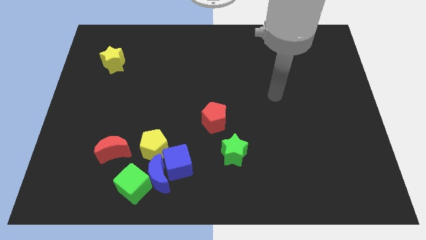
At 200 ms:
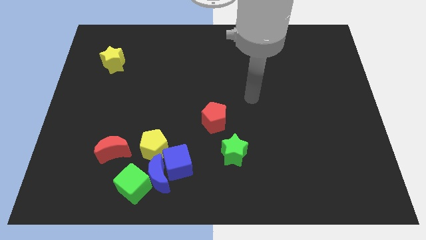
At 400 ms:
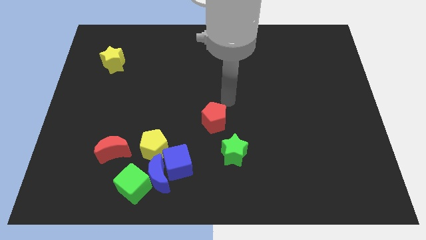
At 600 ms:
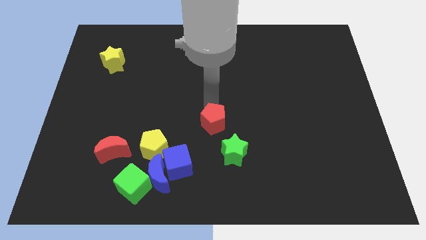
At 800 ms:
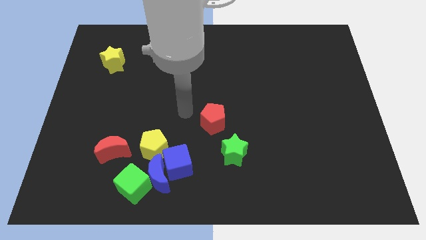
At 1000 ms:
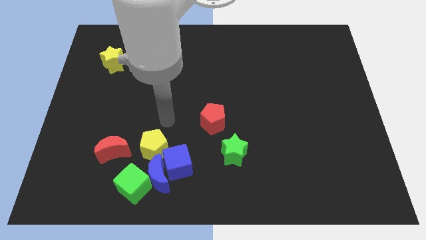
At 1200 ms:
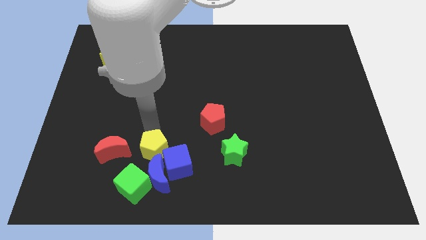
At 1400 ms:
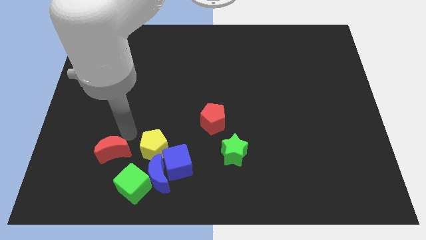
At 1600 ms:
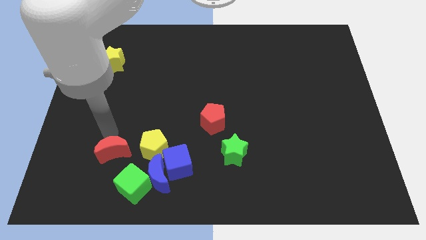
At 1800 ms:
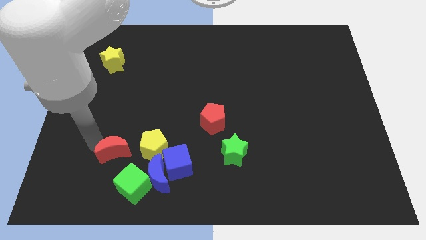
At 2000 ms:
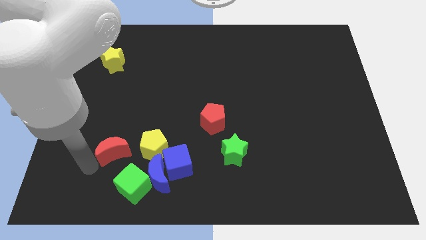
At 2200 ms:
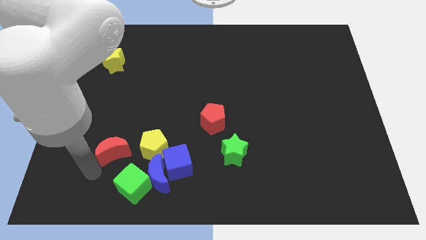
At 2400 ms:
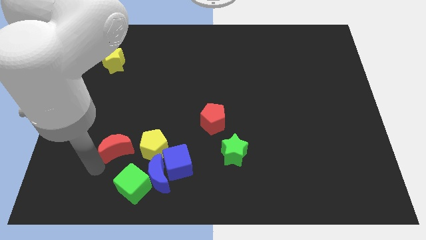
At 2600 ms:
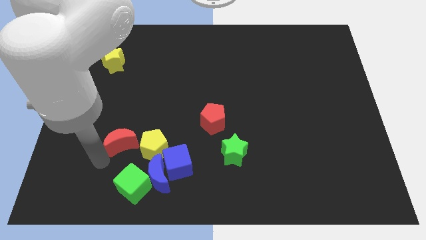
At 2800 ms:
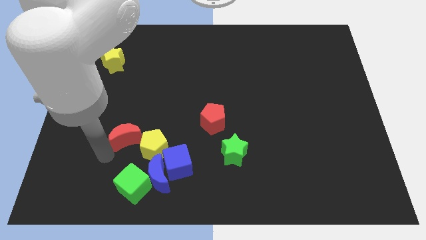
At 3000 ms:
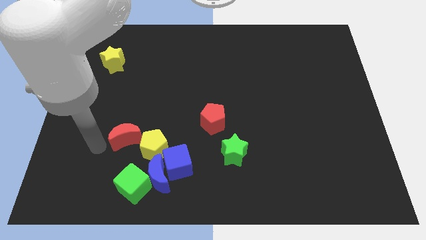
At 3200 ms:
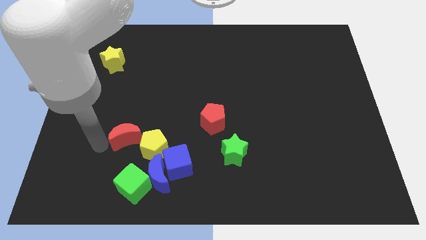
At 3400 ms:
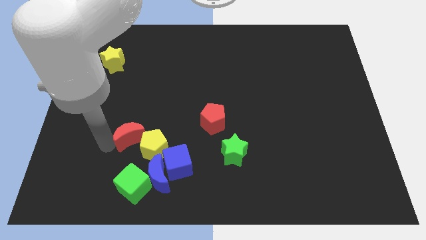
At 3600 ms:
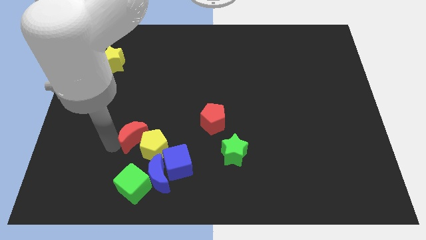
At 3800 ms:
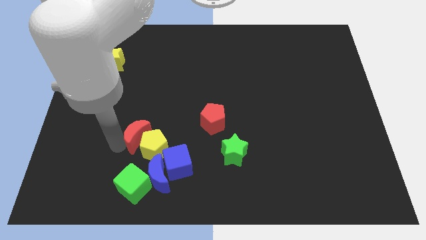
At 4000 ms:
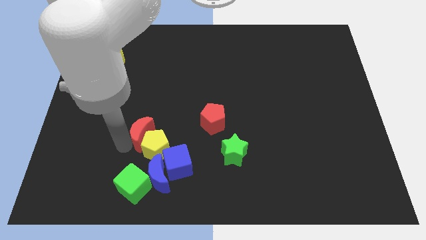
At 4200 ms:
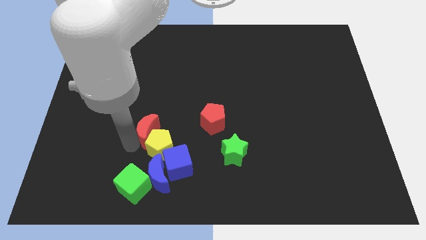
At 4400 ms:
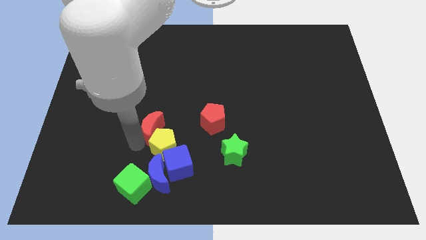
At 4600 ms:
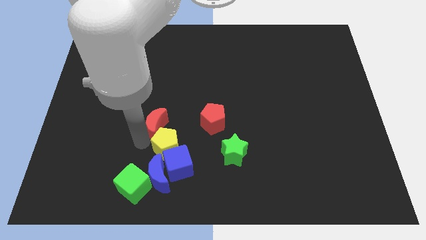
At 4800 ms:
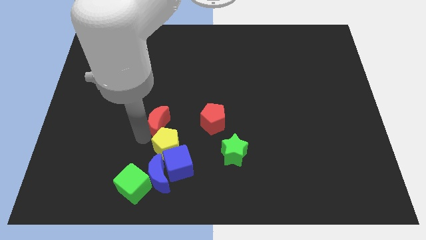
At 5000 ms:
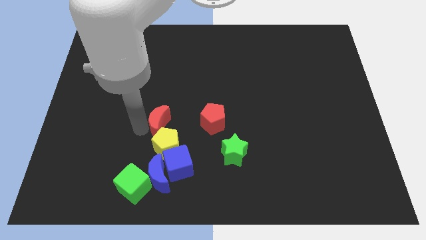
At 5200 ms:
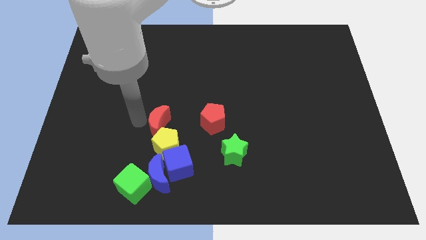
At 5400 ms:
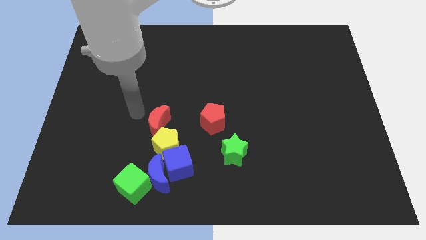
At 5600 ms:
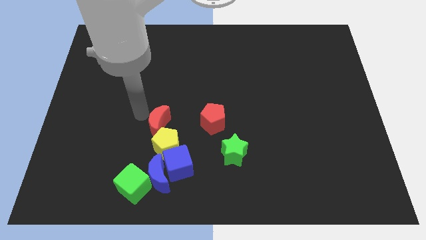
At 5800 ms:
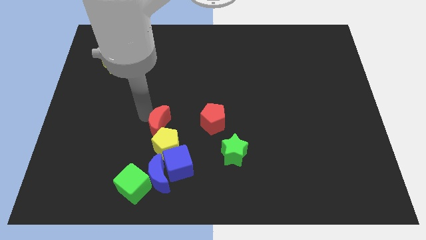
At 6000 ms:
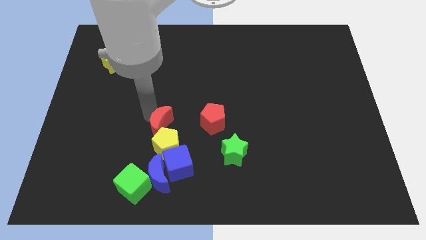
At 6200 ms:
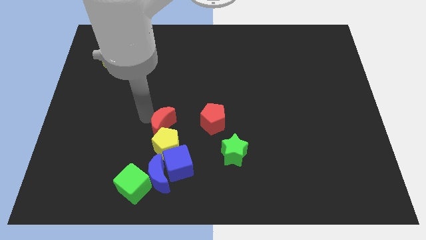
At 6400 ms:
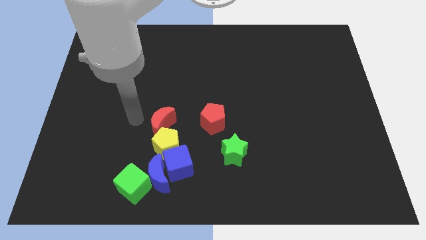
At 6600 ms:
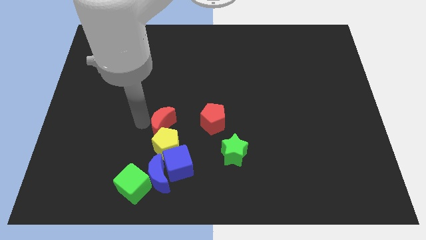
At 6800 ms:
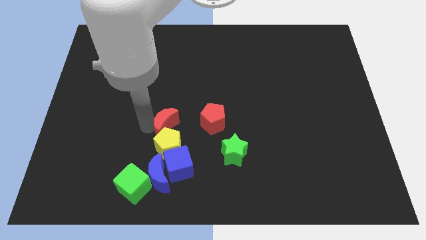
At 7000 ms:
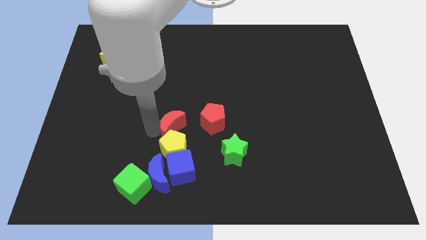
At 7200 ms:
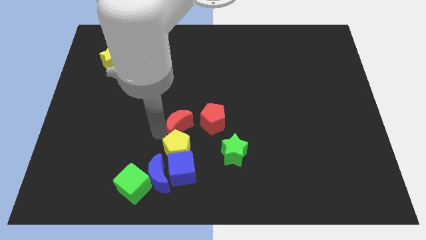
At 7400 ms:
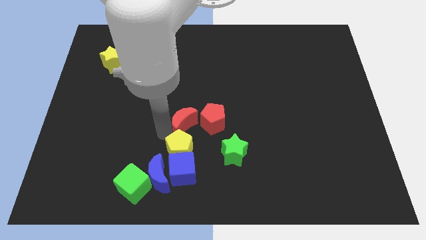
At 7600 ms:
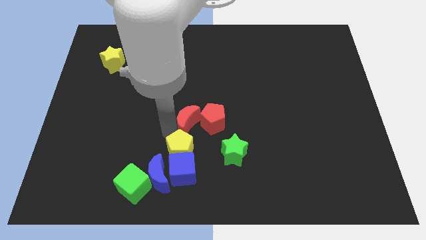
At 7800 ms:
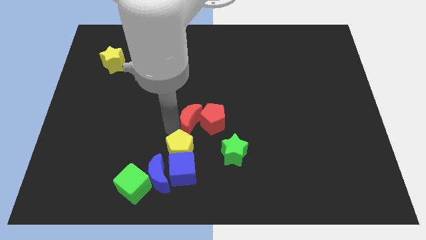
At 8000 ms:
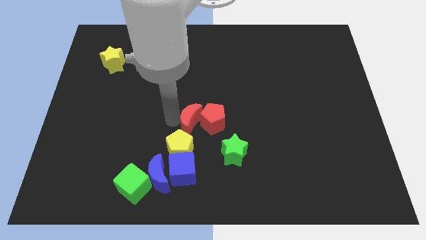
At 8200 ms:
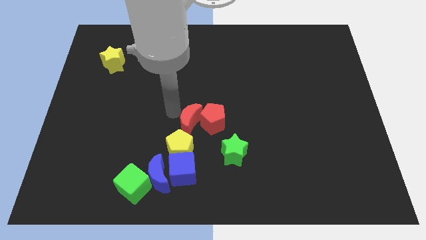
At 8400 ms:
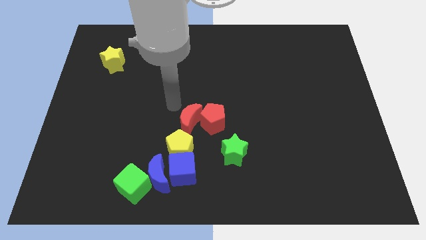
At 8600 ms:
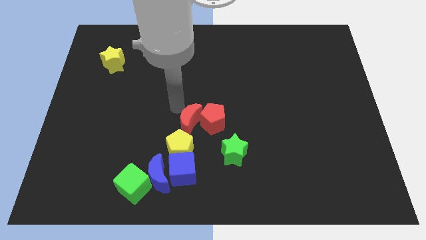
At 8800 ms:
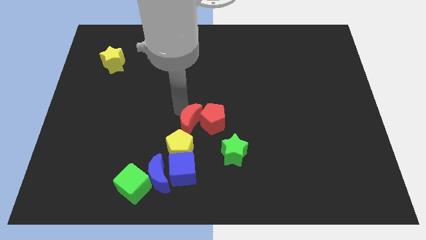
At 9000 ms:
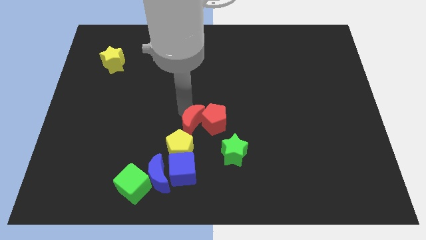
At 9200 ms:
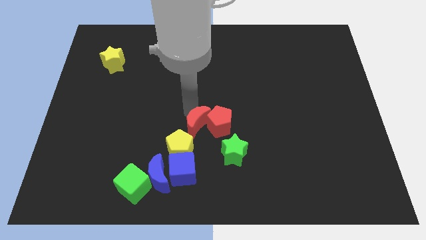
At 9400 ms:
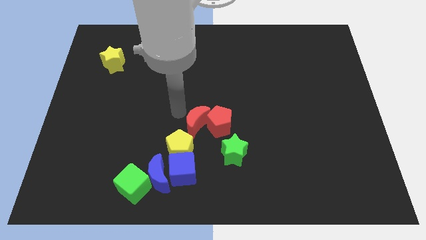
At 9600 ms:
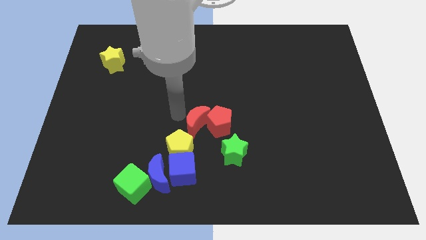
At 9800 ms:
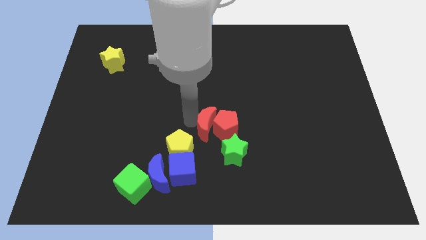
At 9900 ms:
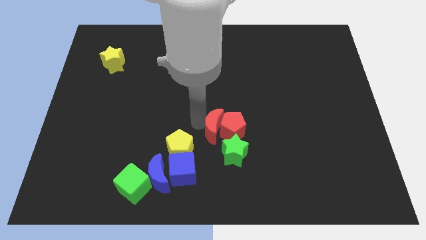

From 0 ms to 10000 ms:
push the red moon to the right

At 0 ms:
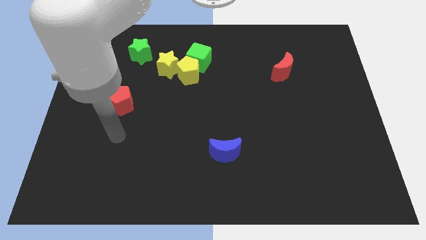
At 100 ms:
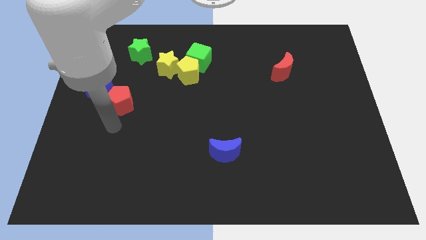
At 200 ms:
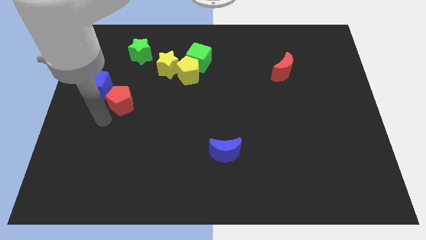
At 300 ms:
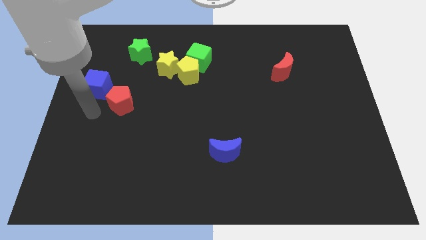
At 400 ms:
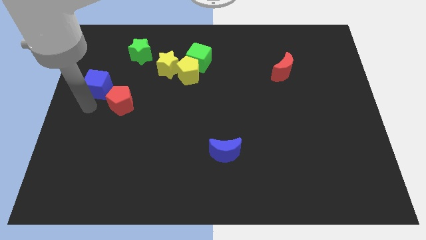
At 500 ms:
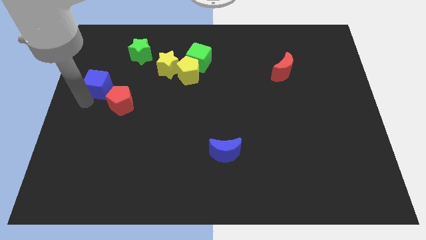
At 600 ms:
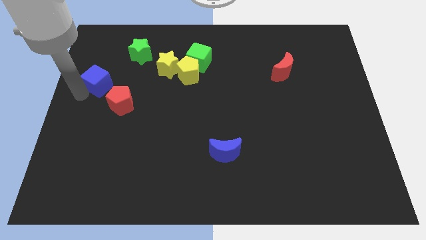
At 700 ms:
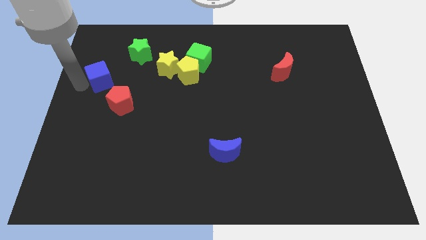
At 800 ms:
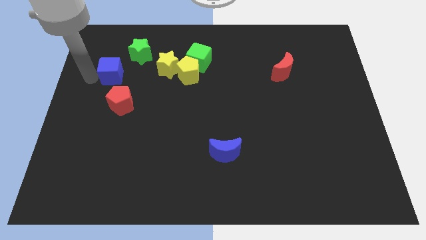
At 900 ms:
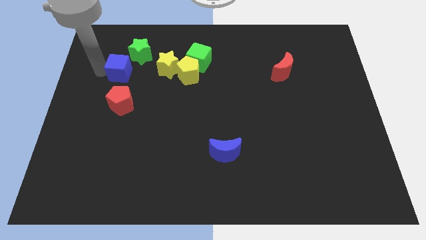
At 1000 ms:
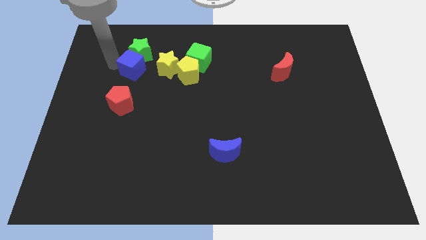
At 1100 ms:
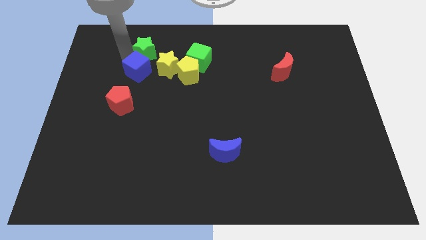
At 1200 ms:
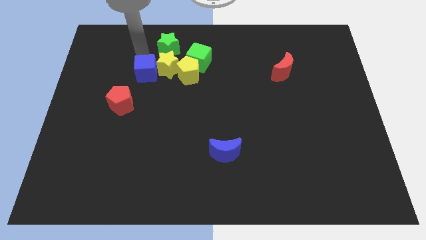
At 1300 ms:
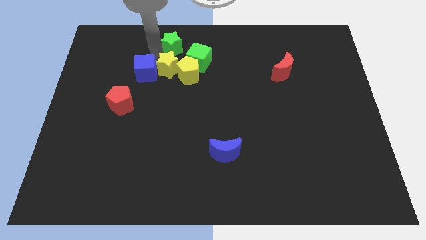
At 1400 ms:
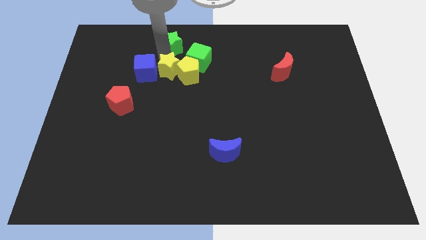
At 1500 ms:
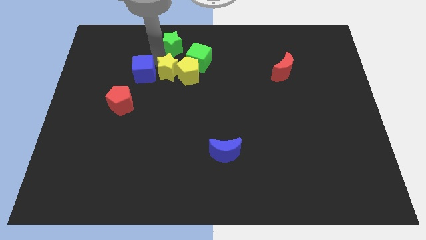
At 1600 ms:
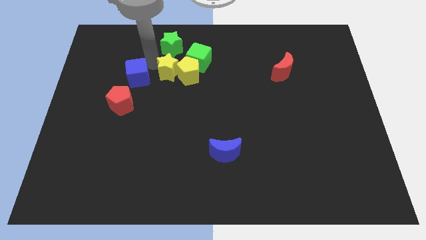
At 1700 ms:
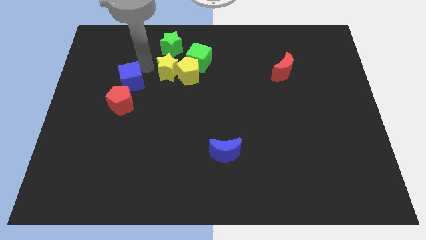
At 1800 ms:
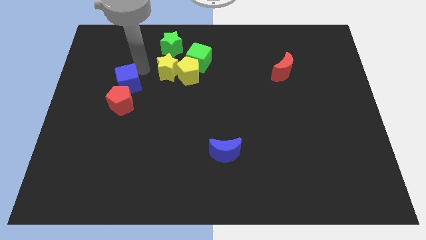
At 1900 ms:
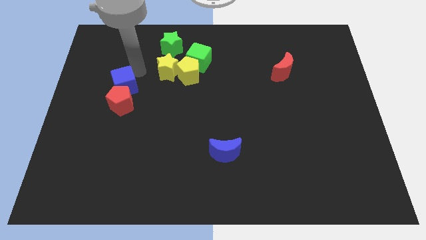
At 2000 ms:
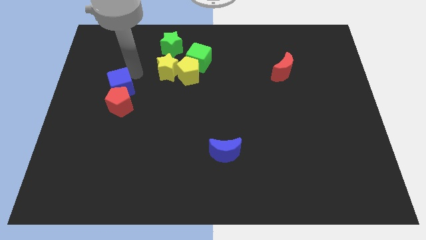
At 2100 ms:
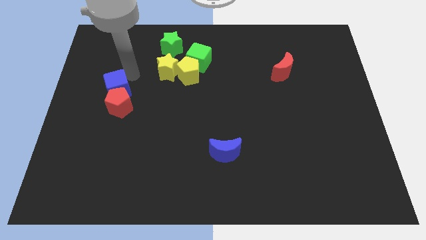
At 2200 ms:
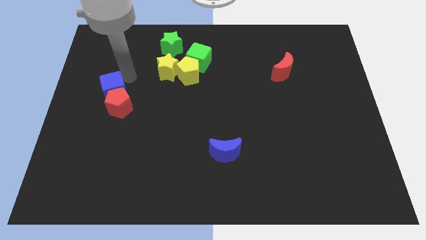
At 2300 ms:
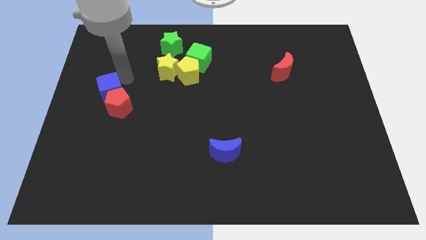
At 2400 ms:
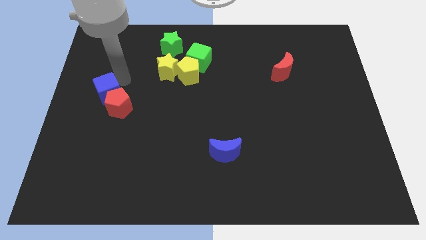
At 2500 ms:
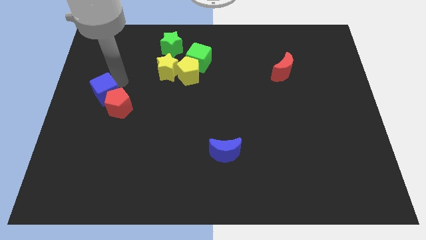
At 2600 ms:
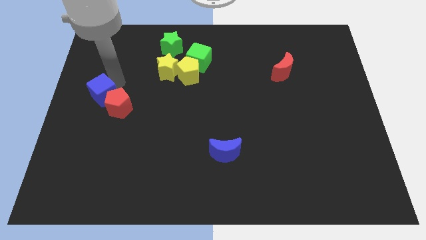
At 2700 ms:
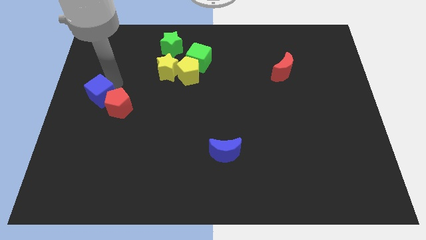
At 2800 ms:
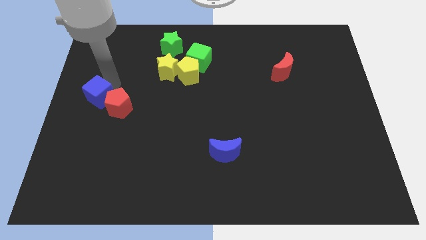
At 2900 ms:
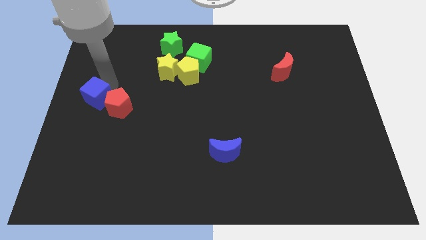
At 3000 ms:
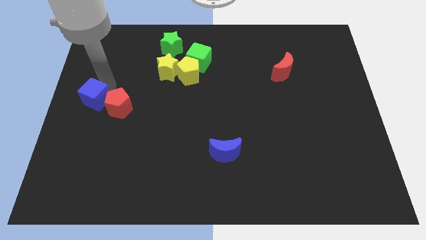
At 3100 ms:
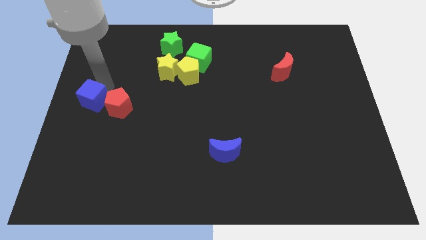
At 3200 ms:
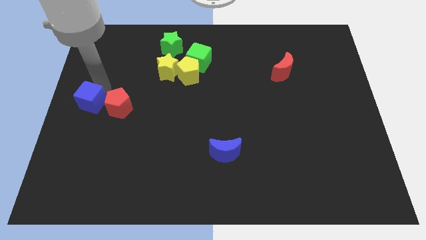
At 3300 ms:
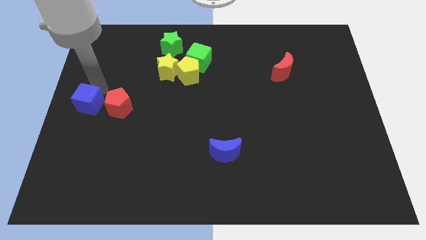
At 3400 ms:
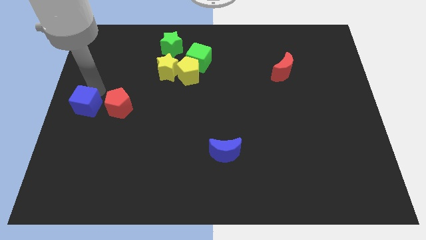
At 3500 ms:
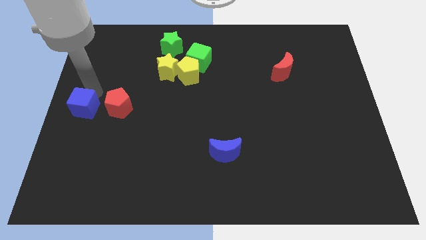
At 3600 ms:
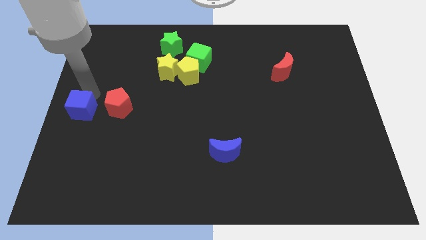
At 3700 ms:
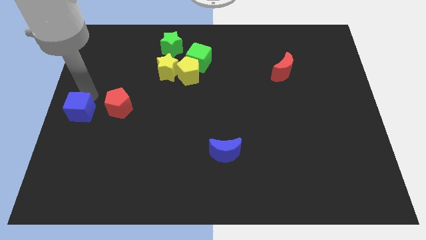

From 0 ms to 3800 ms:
slide the blue cube a little bit down
